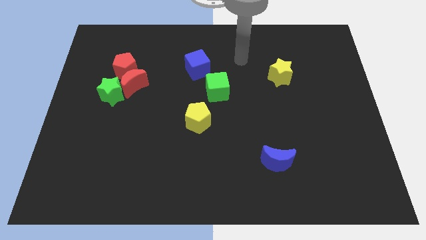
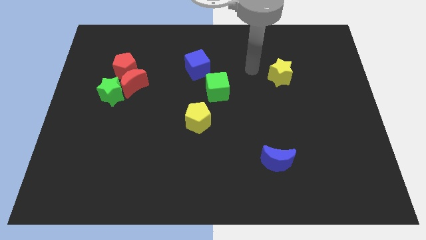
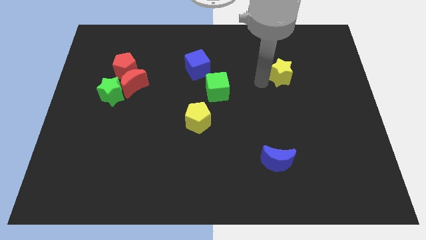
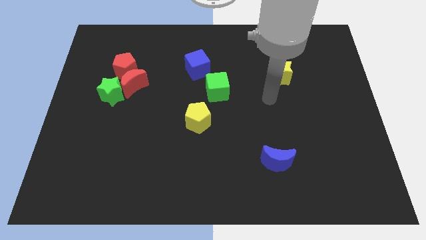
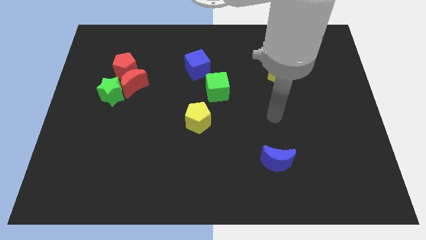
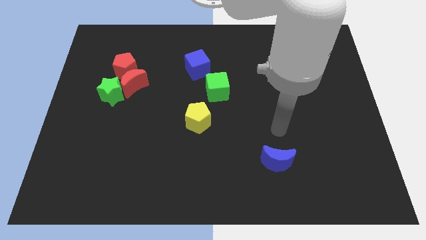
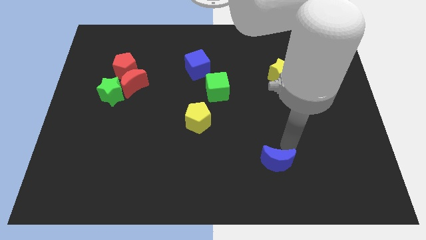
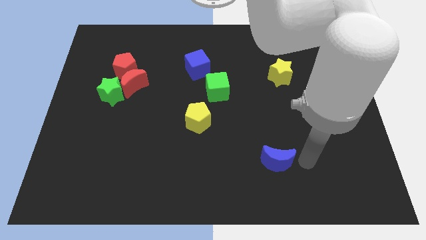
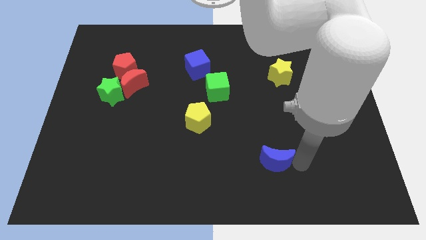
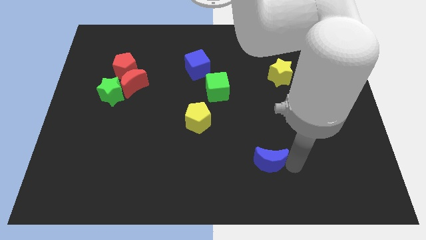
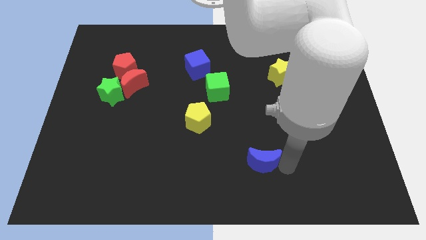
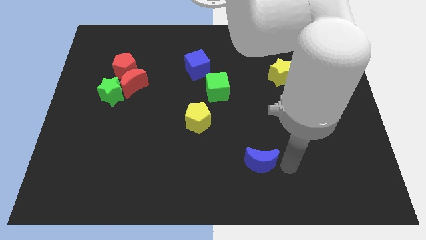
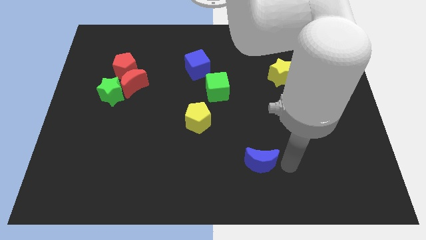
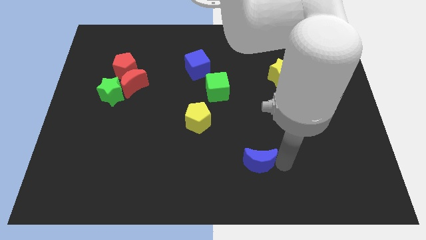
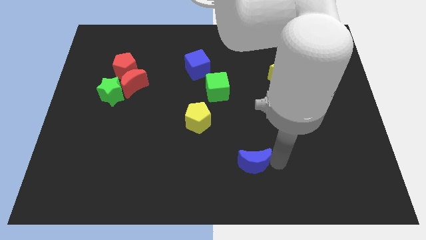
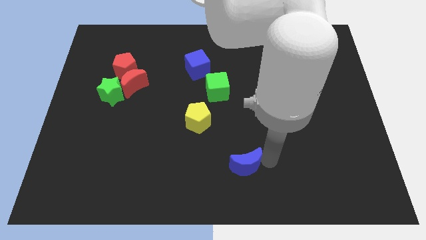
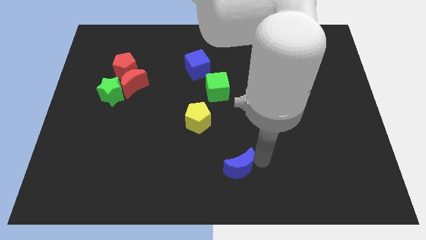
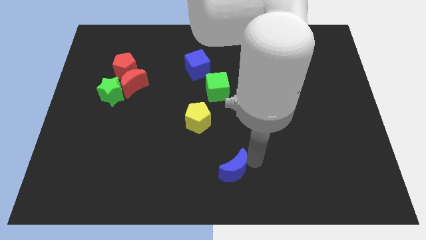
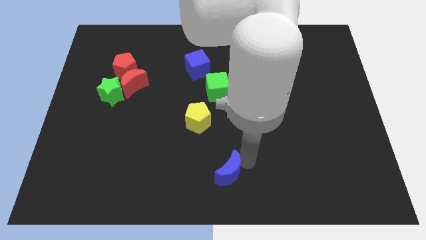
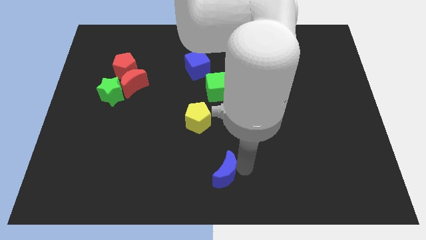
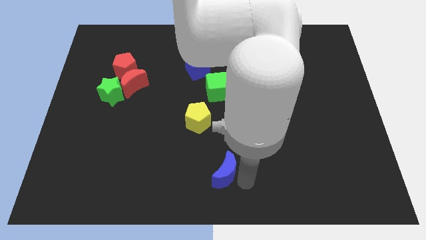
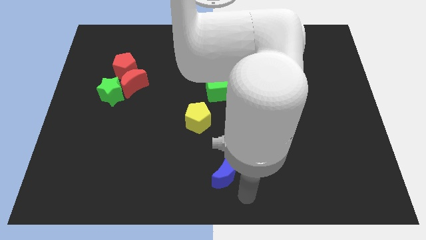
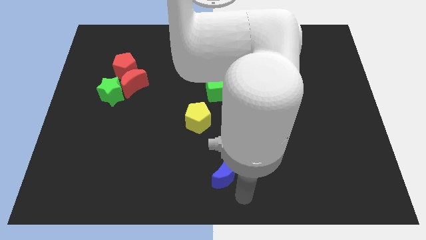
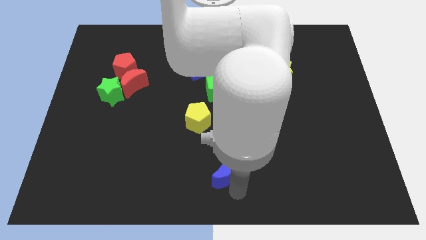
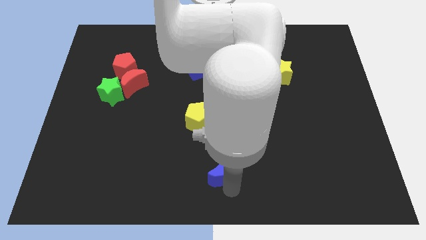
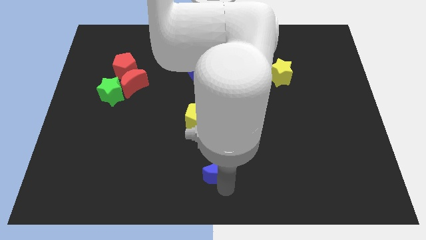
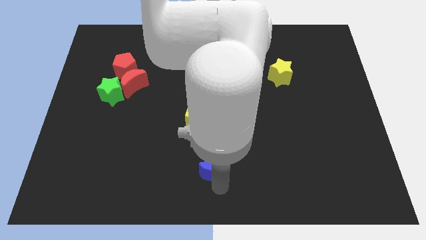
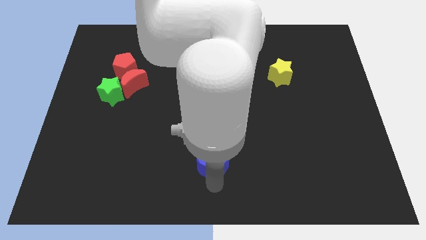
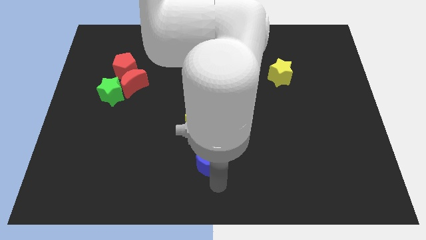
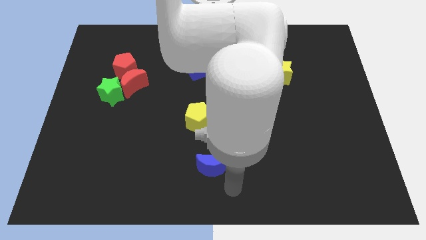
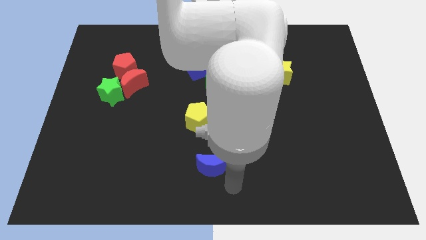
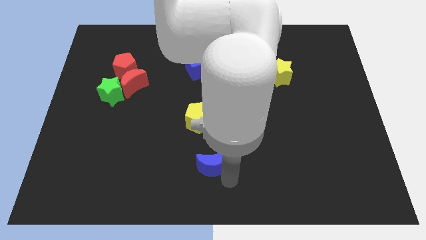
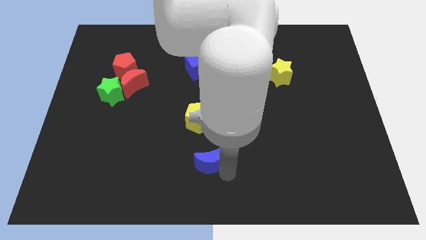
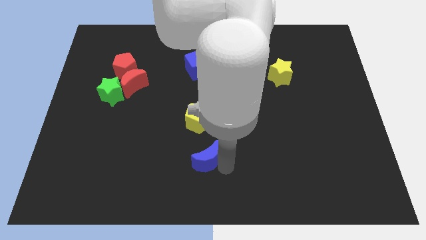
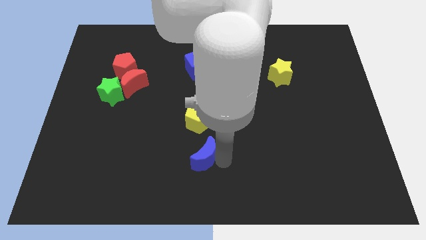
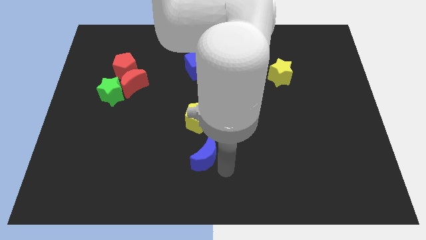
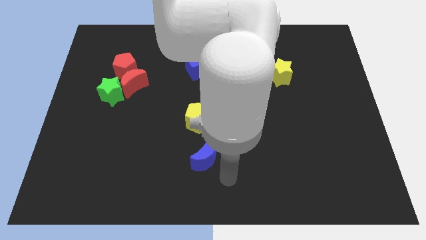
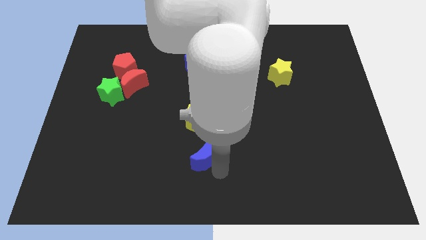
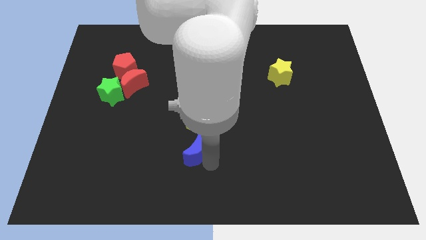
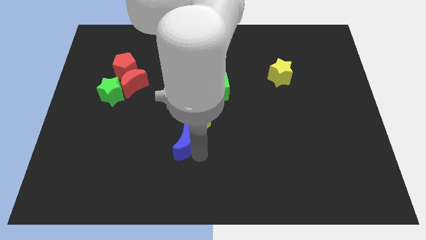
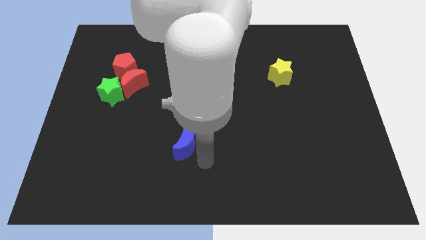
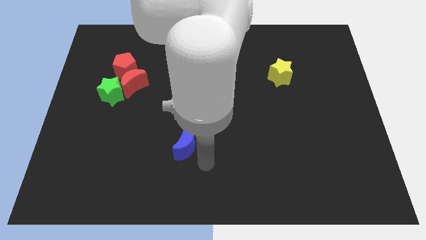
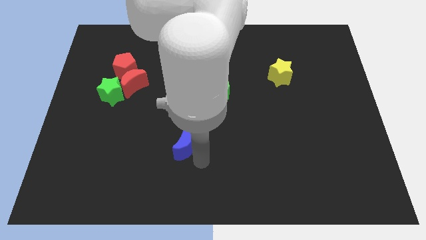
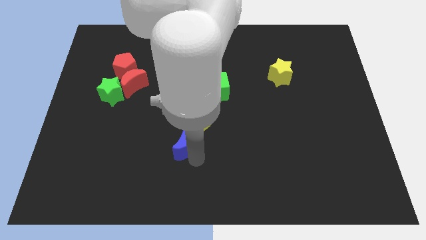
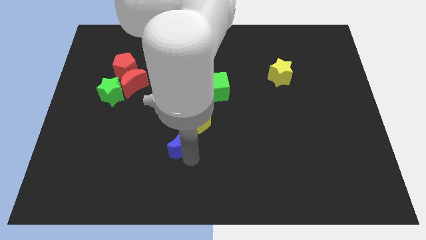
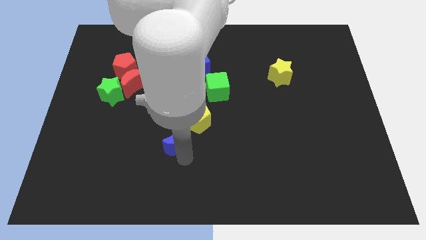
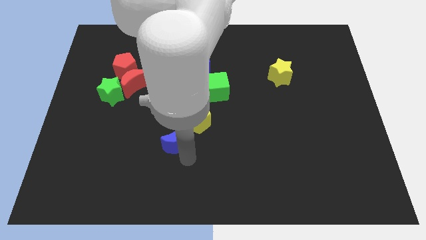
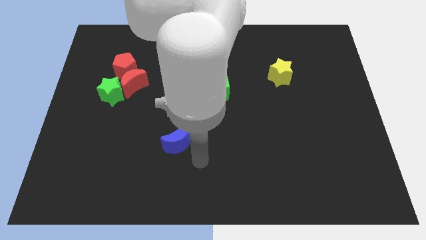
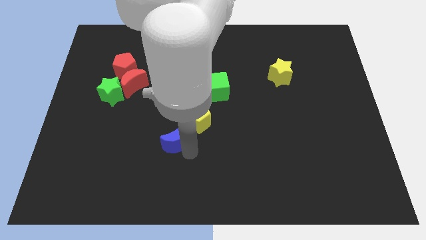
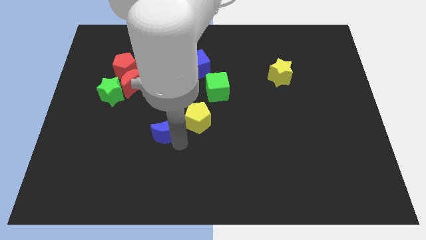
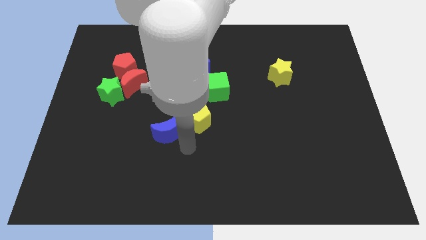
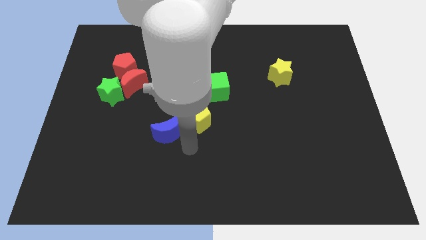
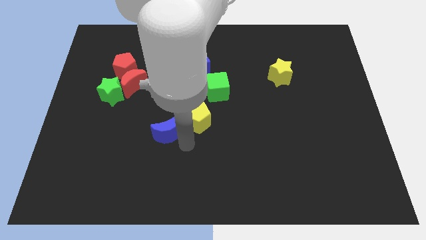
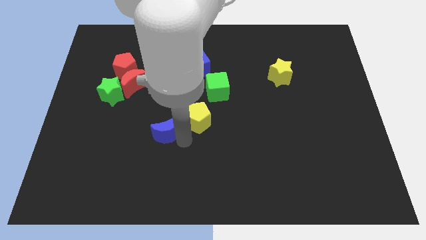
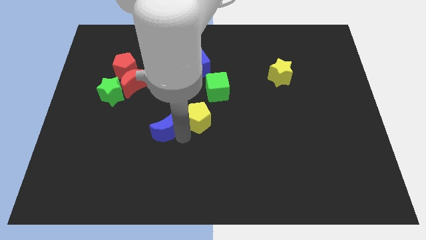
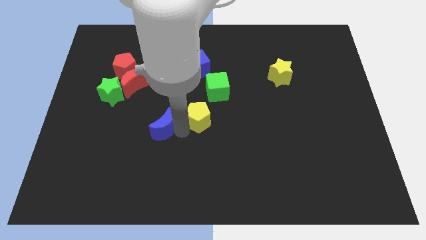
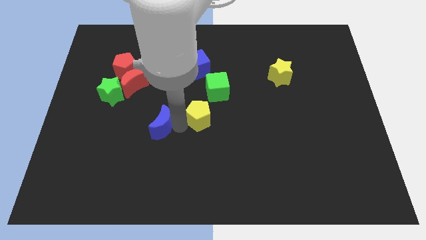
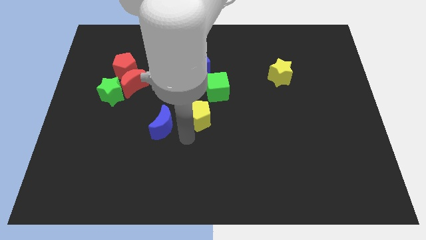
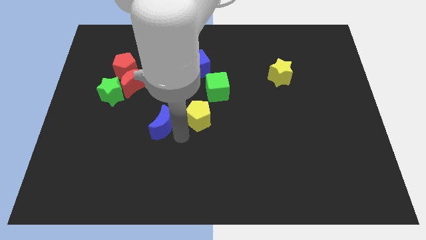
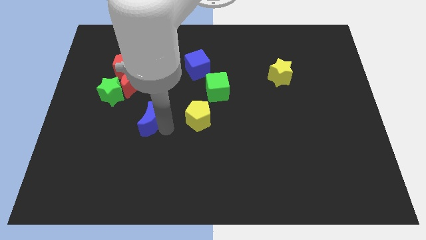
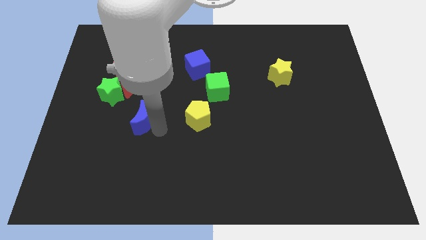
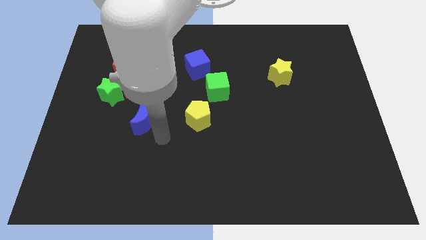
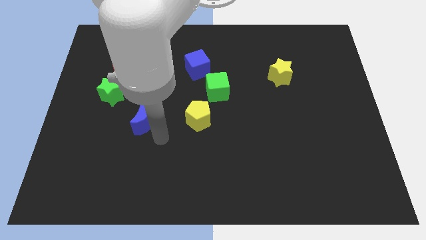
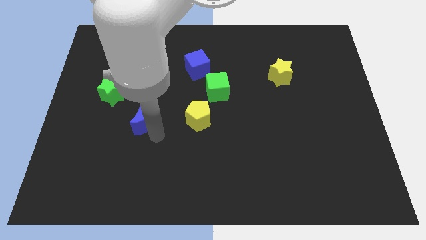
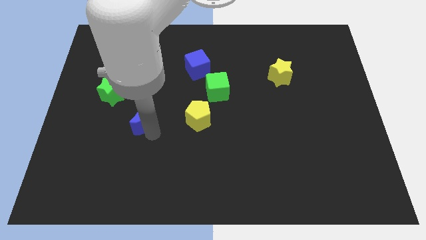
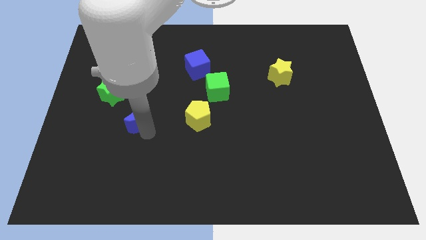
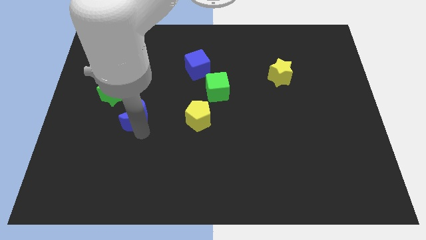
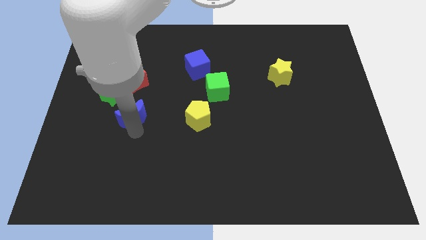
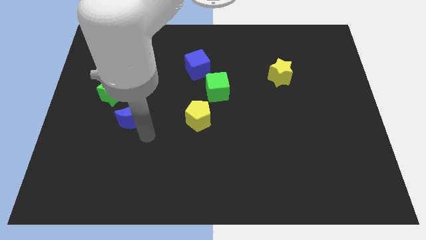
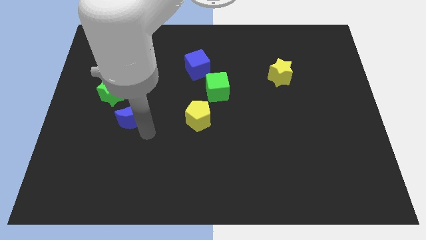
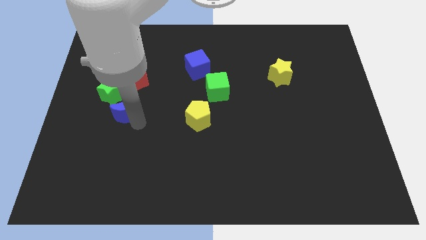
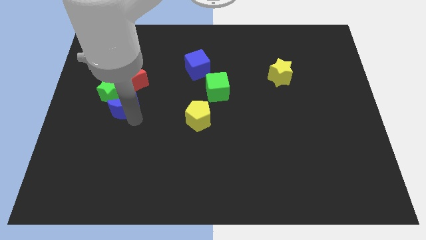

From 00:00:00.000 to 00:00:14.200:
move the blue moon close to the green star
